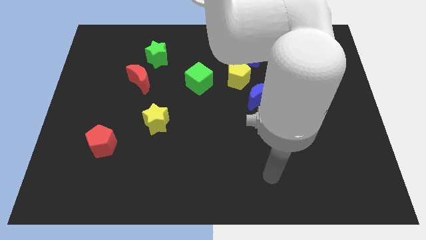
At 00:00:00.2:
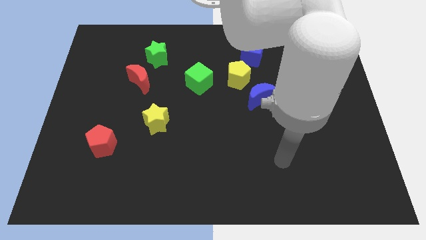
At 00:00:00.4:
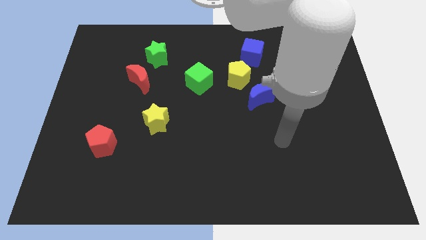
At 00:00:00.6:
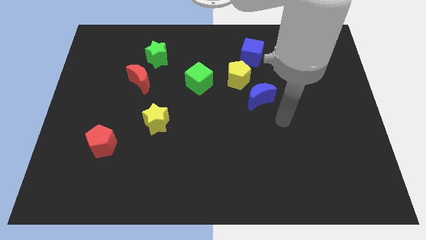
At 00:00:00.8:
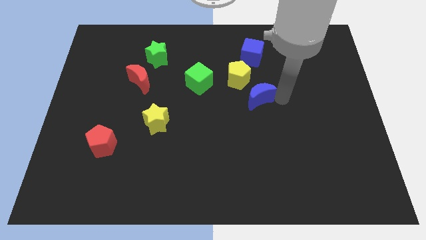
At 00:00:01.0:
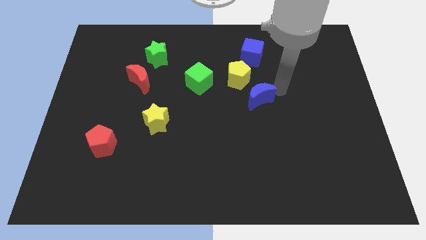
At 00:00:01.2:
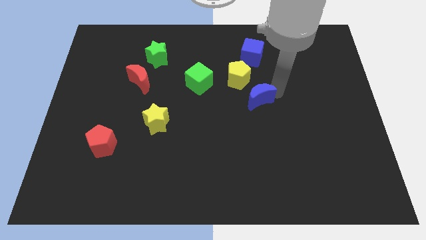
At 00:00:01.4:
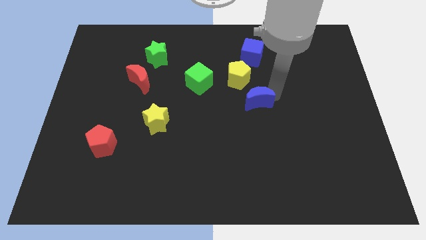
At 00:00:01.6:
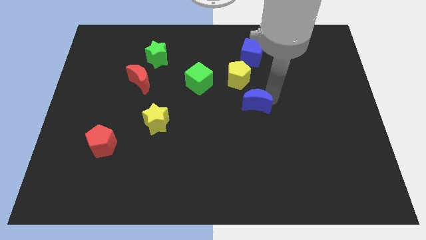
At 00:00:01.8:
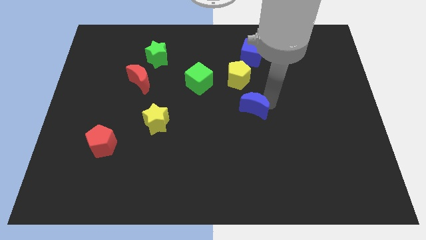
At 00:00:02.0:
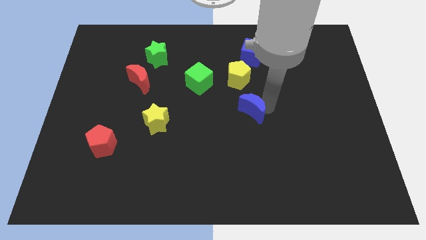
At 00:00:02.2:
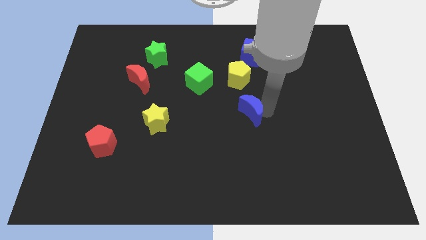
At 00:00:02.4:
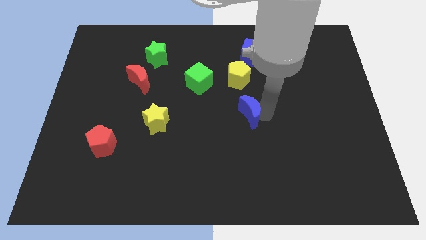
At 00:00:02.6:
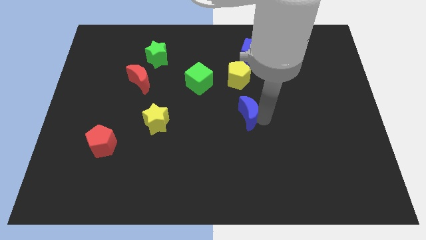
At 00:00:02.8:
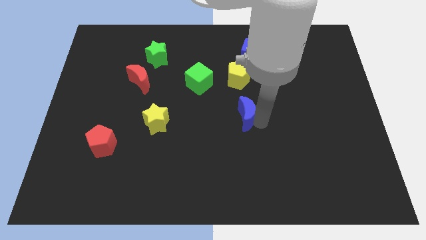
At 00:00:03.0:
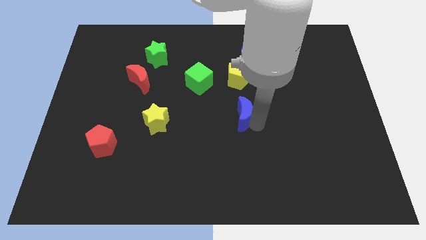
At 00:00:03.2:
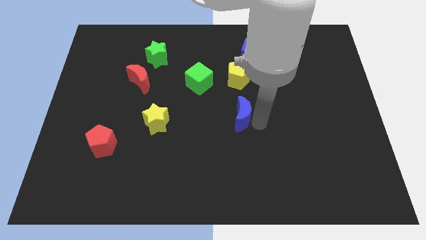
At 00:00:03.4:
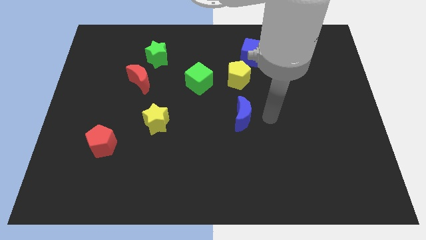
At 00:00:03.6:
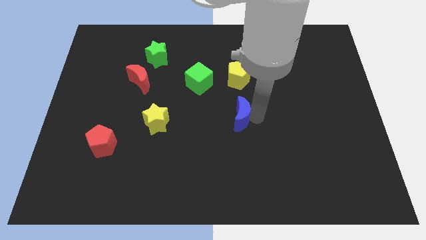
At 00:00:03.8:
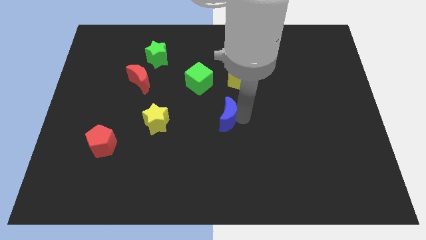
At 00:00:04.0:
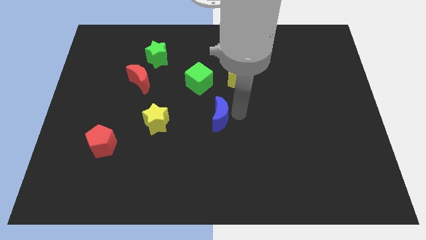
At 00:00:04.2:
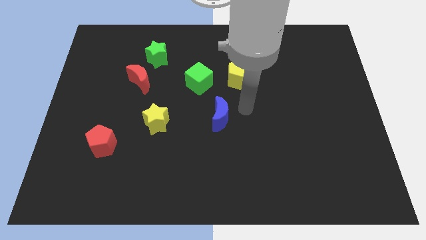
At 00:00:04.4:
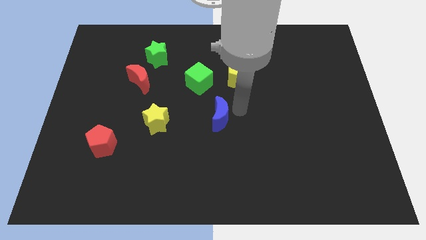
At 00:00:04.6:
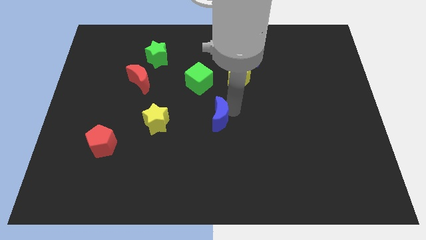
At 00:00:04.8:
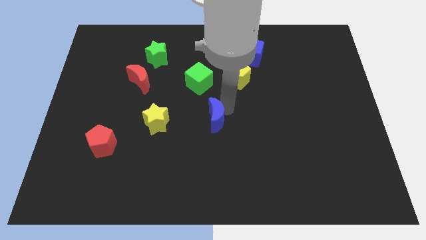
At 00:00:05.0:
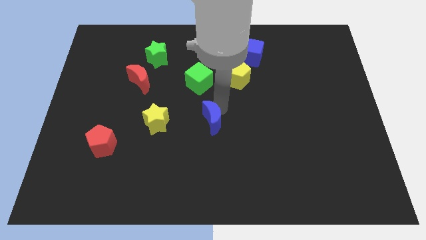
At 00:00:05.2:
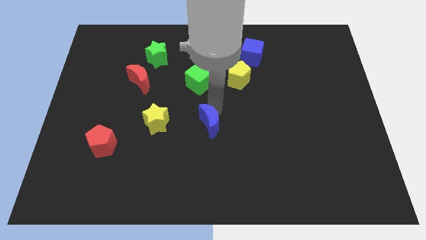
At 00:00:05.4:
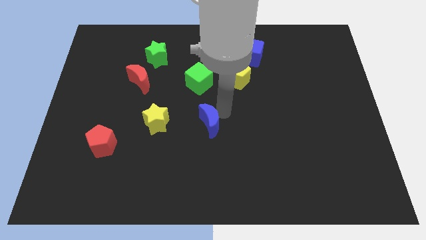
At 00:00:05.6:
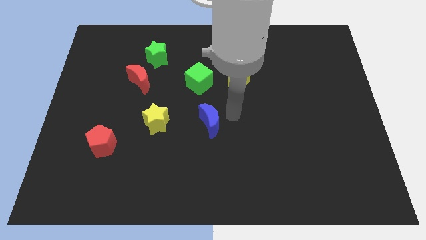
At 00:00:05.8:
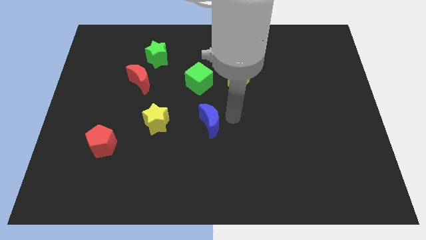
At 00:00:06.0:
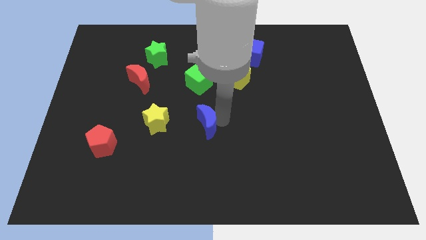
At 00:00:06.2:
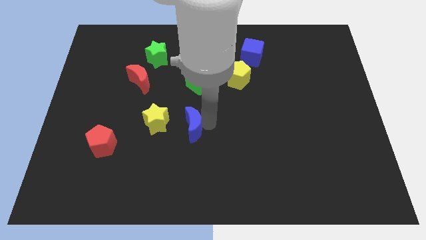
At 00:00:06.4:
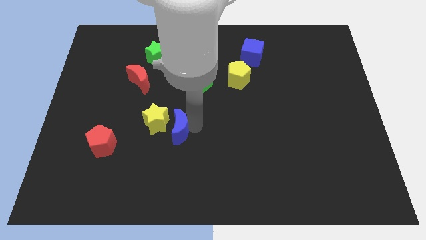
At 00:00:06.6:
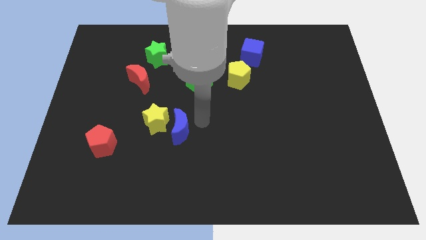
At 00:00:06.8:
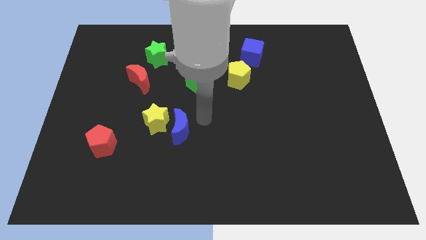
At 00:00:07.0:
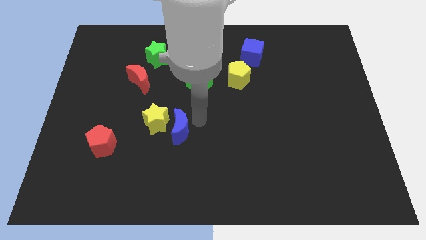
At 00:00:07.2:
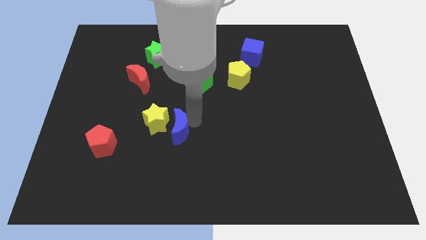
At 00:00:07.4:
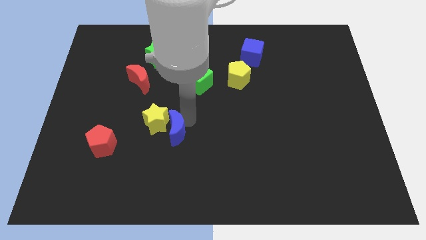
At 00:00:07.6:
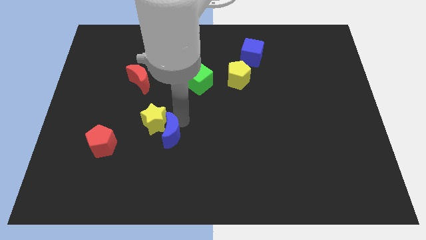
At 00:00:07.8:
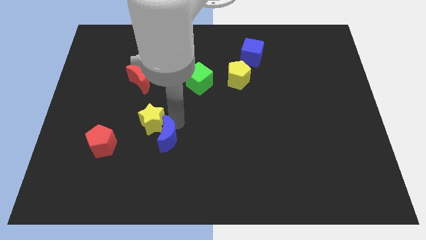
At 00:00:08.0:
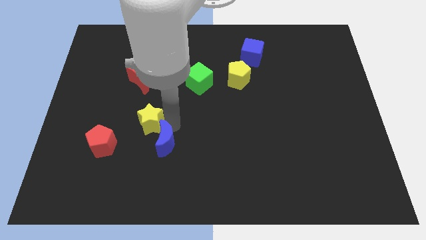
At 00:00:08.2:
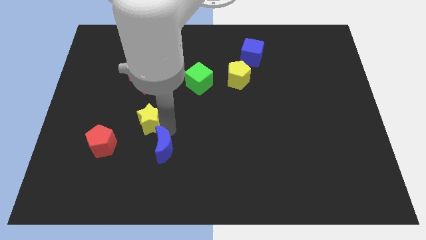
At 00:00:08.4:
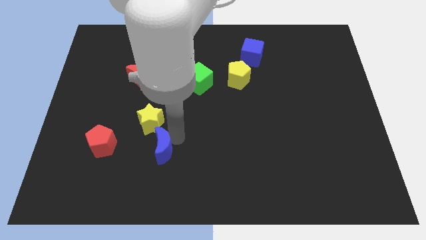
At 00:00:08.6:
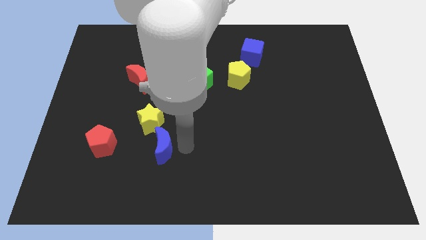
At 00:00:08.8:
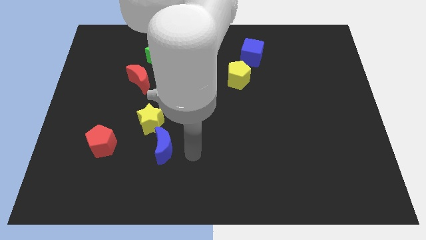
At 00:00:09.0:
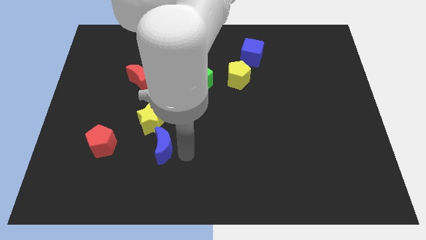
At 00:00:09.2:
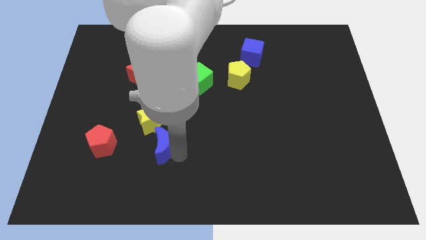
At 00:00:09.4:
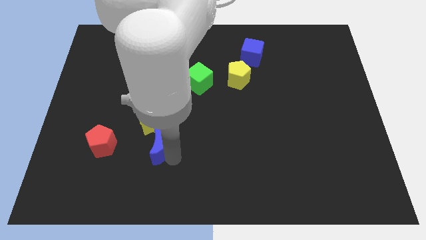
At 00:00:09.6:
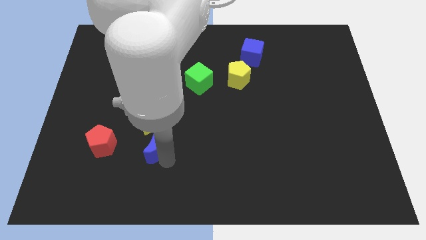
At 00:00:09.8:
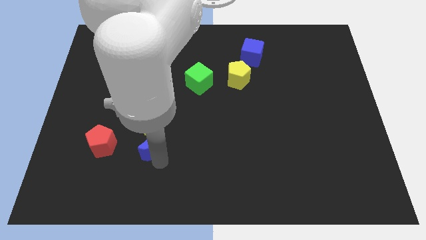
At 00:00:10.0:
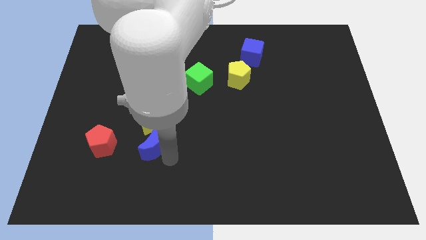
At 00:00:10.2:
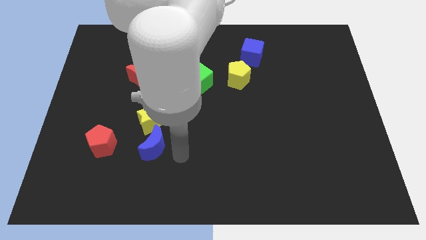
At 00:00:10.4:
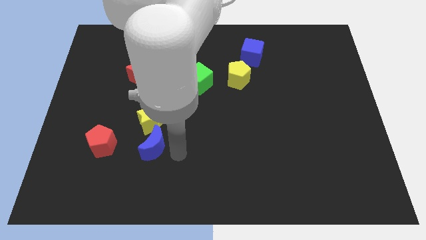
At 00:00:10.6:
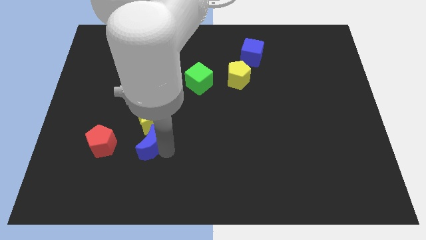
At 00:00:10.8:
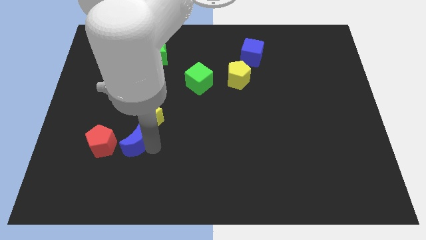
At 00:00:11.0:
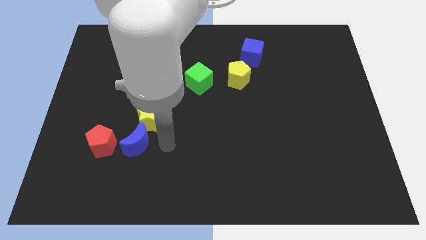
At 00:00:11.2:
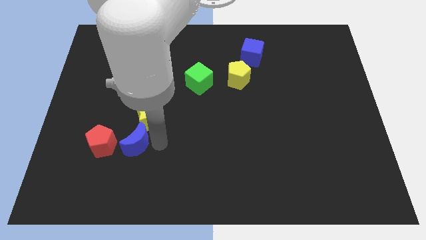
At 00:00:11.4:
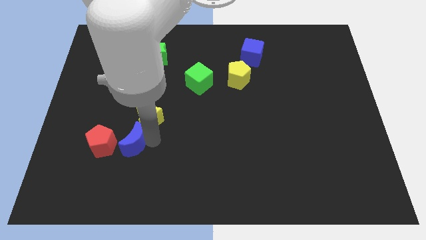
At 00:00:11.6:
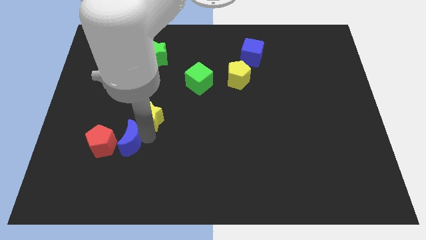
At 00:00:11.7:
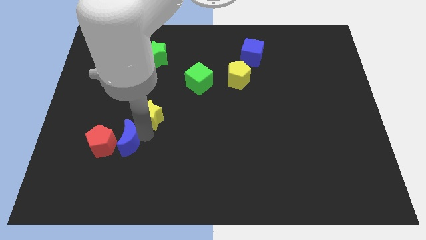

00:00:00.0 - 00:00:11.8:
move the blue moon next to the red pentagon
